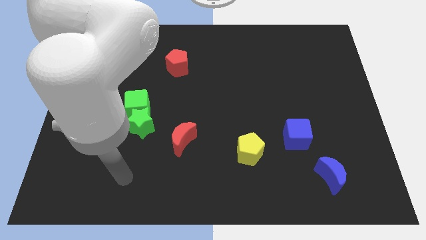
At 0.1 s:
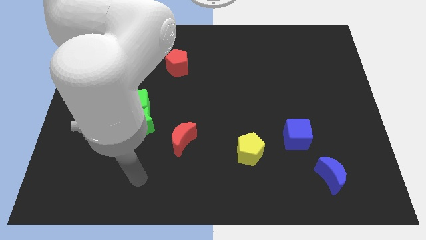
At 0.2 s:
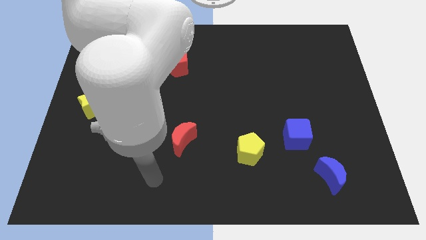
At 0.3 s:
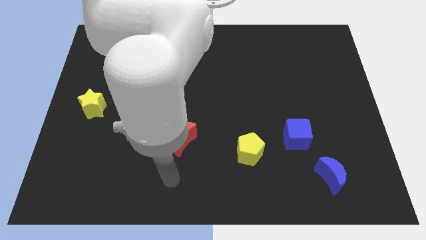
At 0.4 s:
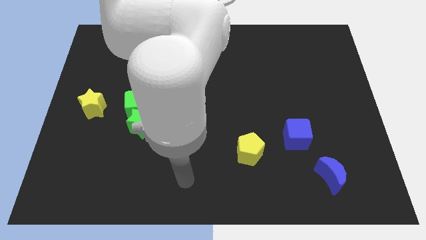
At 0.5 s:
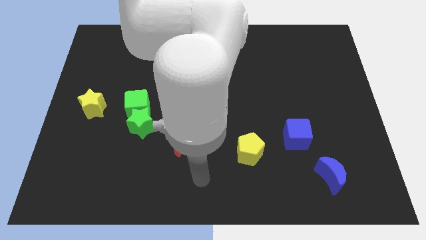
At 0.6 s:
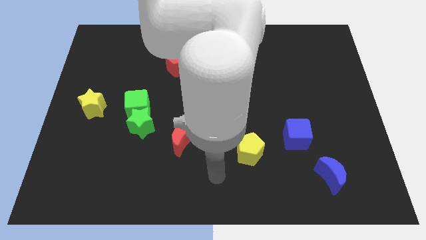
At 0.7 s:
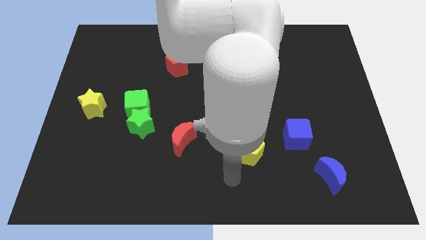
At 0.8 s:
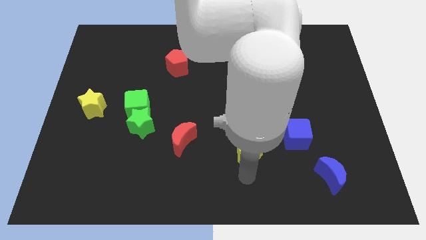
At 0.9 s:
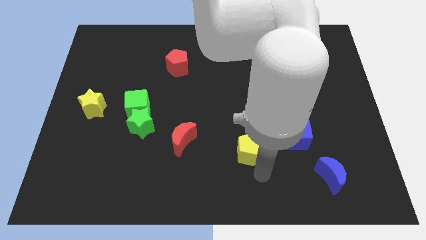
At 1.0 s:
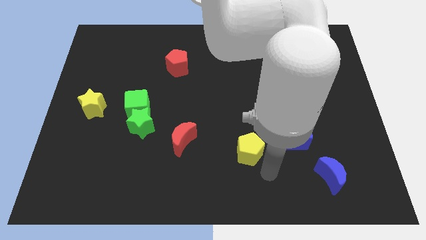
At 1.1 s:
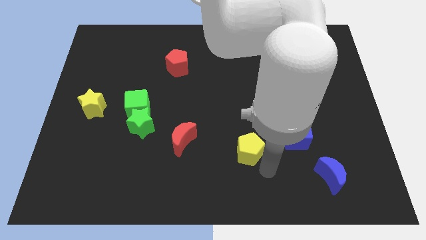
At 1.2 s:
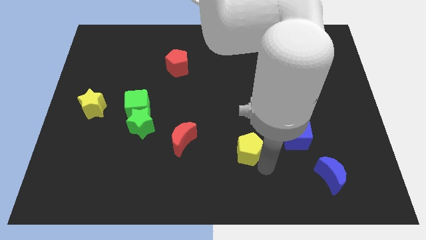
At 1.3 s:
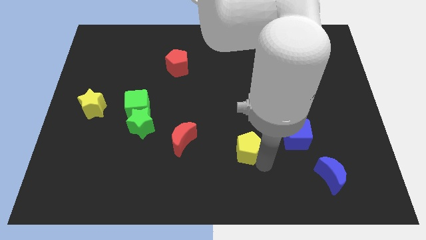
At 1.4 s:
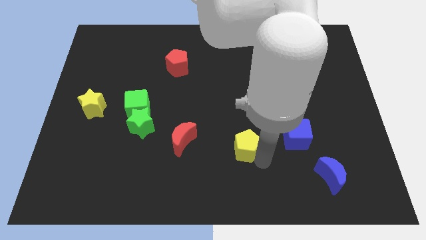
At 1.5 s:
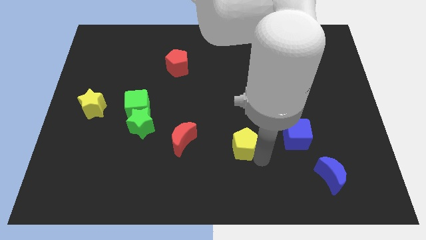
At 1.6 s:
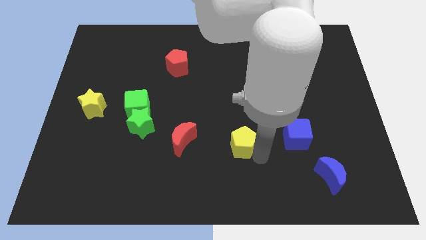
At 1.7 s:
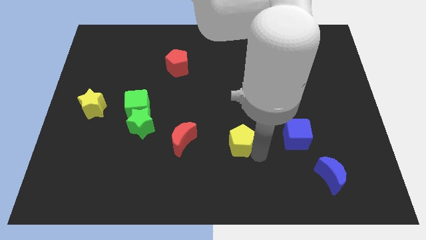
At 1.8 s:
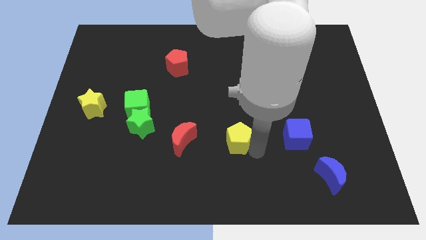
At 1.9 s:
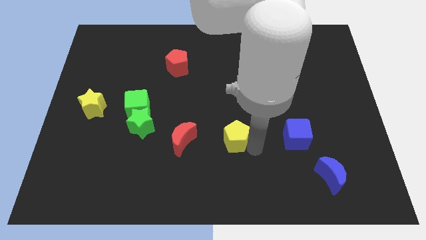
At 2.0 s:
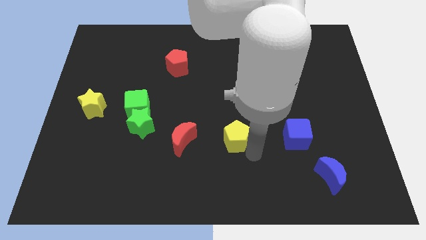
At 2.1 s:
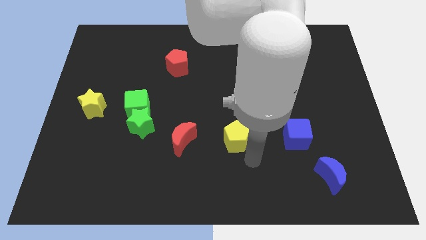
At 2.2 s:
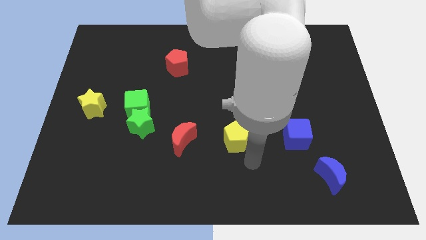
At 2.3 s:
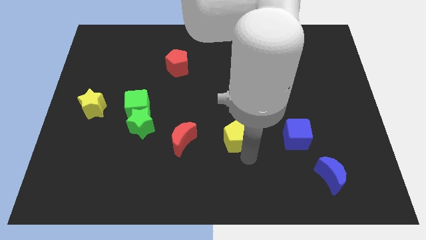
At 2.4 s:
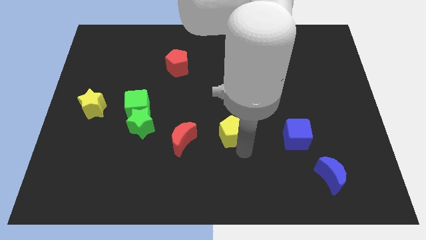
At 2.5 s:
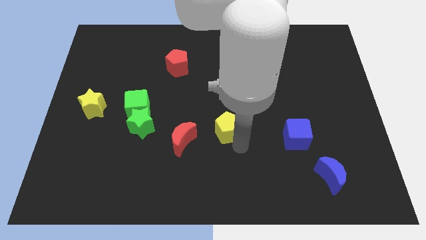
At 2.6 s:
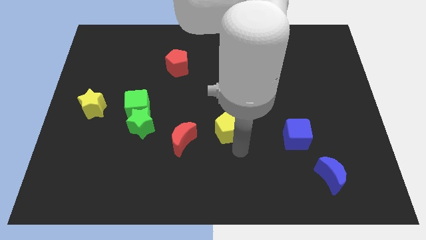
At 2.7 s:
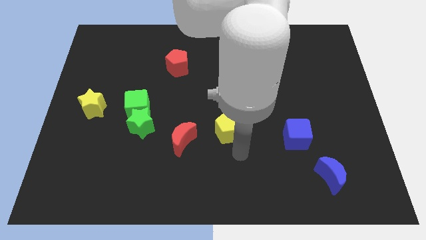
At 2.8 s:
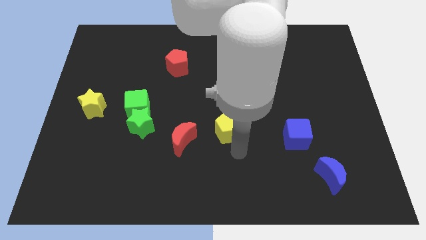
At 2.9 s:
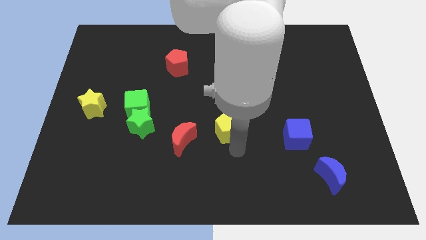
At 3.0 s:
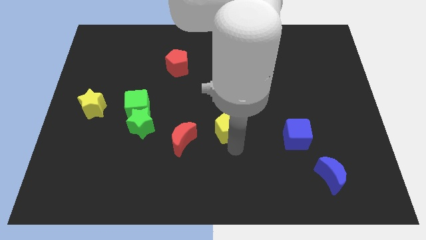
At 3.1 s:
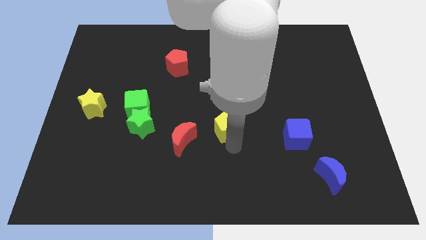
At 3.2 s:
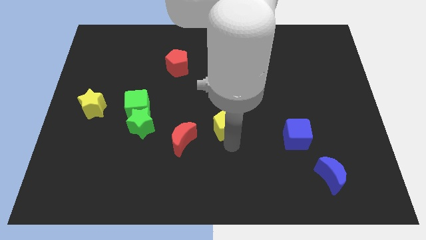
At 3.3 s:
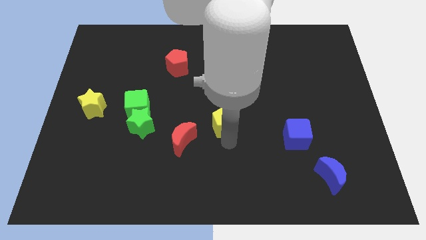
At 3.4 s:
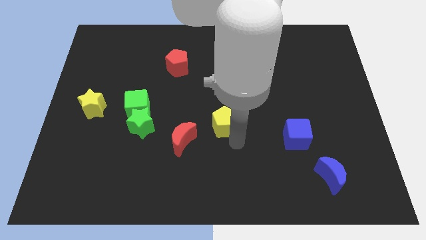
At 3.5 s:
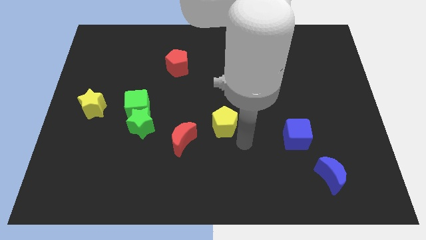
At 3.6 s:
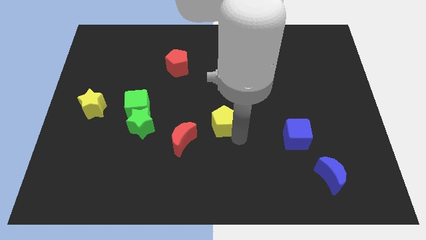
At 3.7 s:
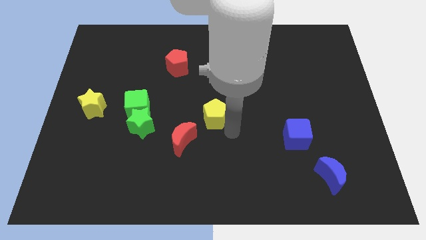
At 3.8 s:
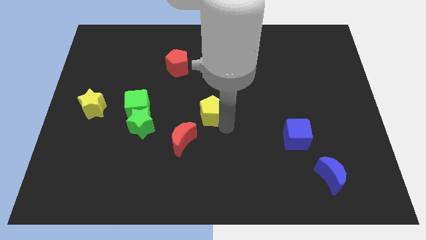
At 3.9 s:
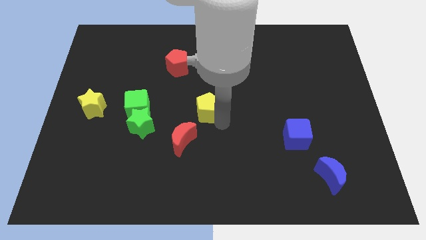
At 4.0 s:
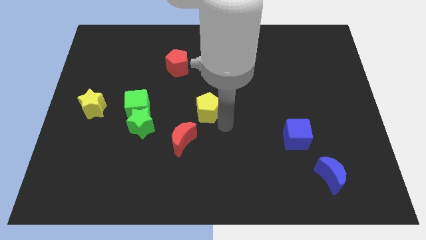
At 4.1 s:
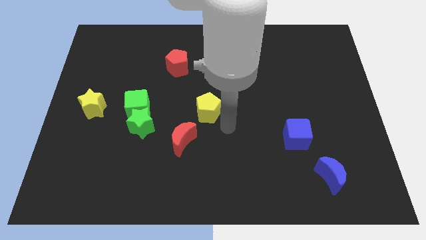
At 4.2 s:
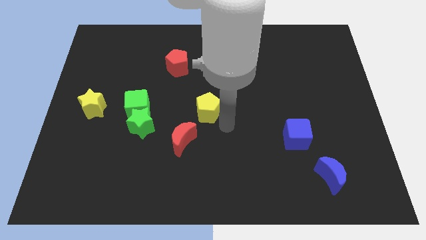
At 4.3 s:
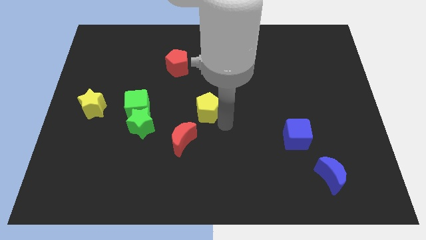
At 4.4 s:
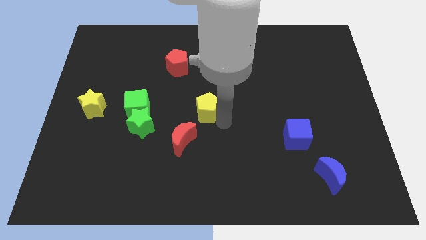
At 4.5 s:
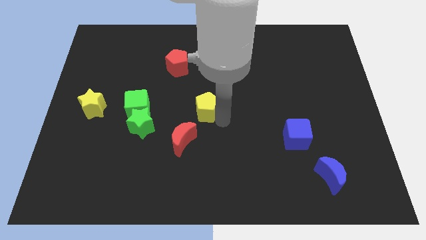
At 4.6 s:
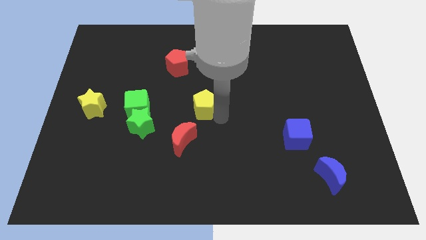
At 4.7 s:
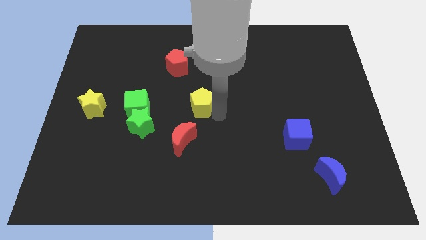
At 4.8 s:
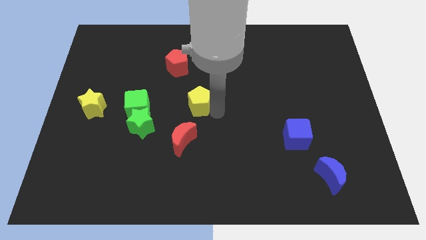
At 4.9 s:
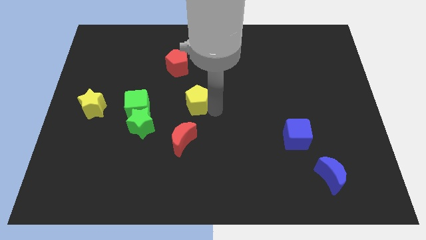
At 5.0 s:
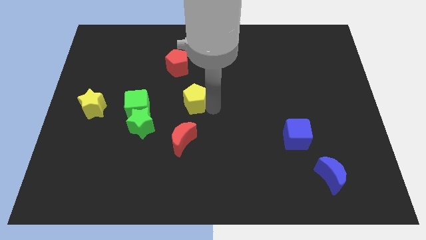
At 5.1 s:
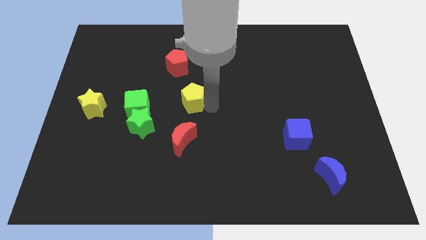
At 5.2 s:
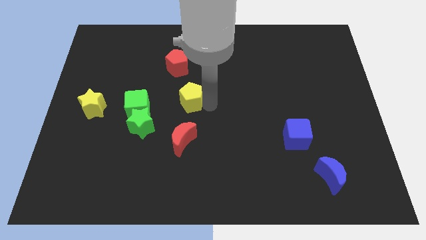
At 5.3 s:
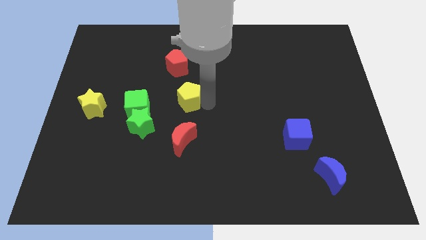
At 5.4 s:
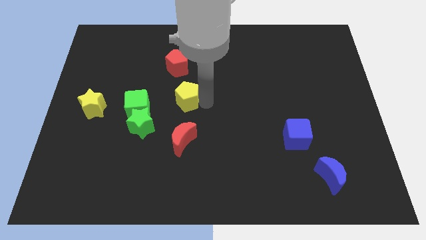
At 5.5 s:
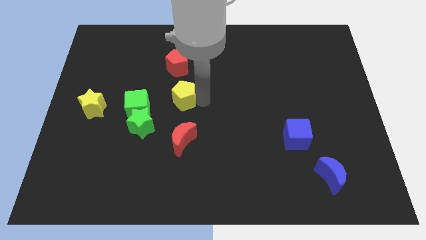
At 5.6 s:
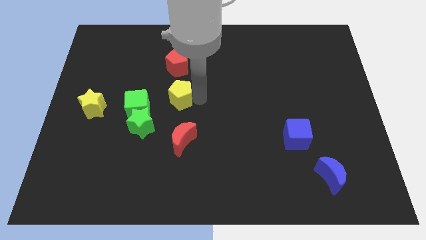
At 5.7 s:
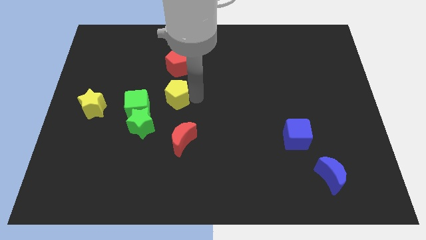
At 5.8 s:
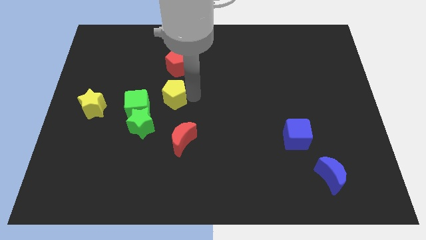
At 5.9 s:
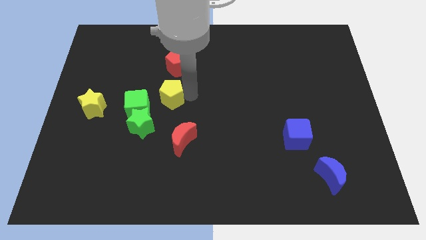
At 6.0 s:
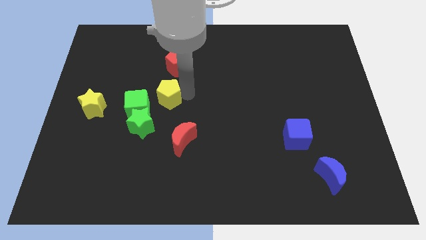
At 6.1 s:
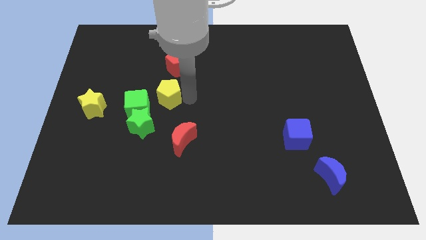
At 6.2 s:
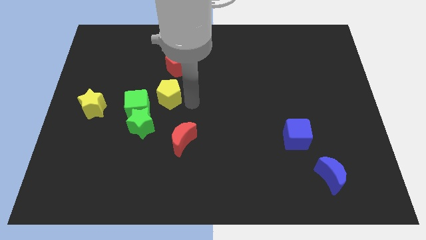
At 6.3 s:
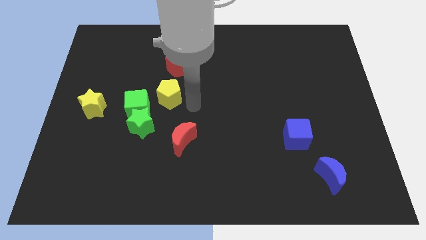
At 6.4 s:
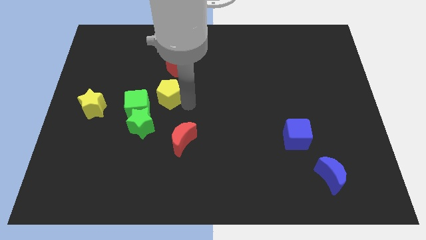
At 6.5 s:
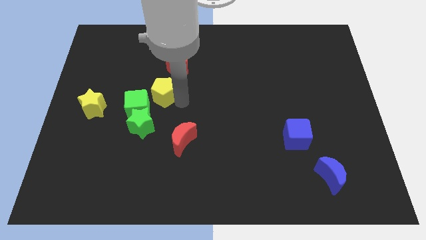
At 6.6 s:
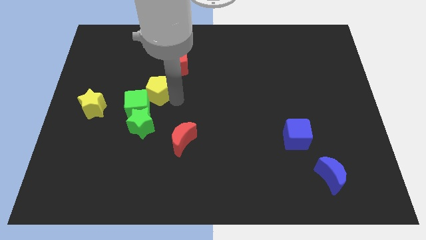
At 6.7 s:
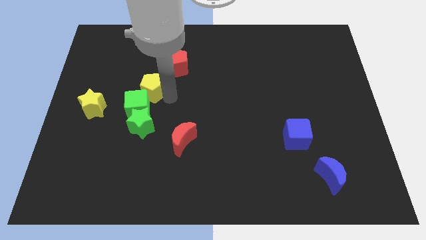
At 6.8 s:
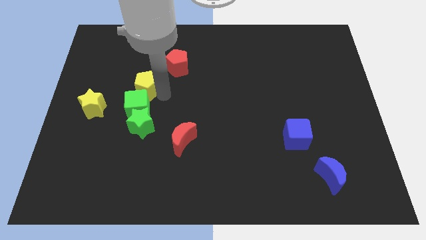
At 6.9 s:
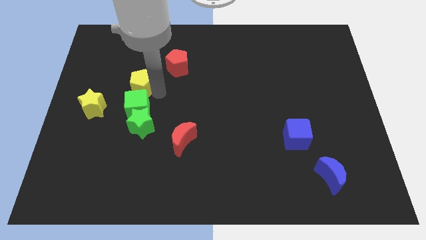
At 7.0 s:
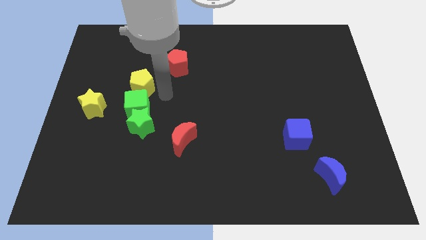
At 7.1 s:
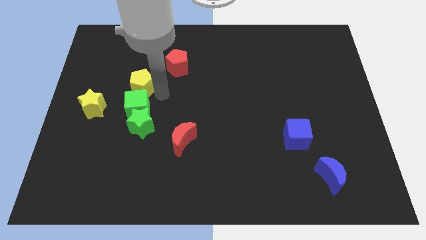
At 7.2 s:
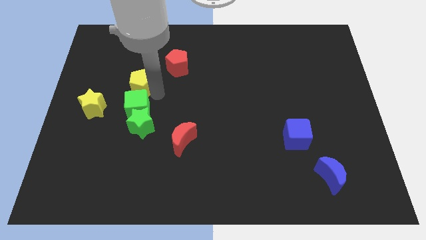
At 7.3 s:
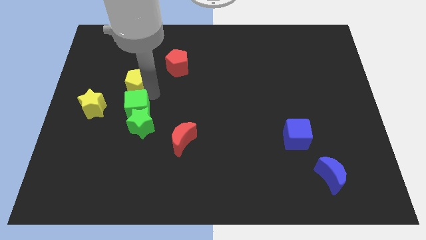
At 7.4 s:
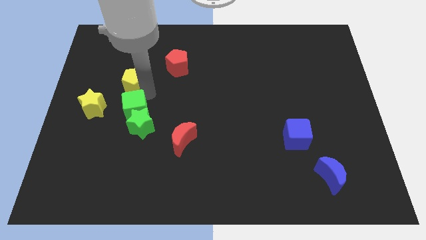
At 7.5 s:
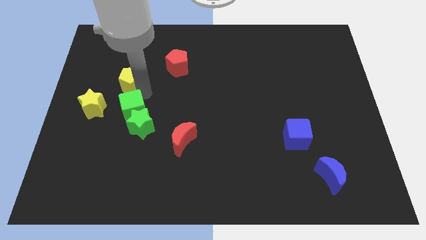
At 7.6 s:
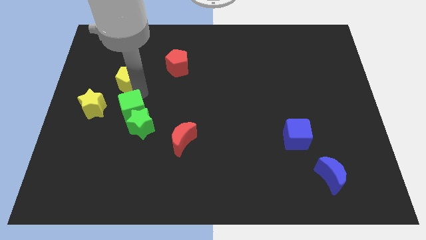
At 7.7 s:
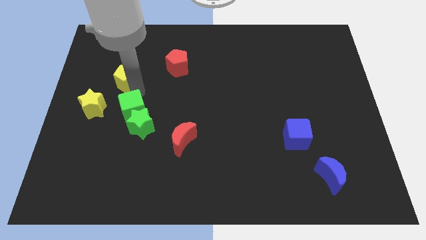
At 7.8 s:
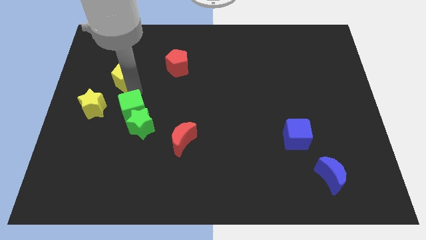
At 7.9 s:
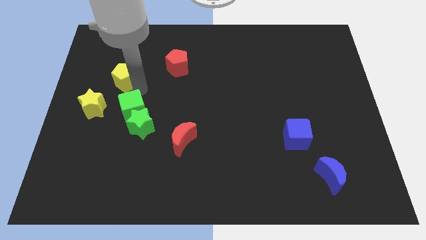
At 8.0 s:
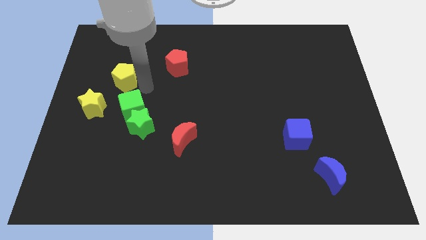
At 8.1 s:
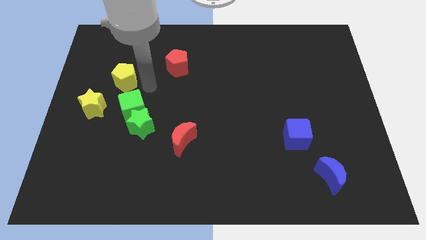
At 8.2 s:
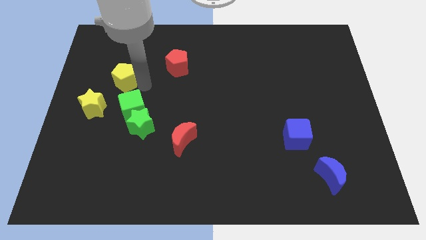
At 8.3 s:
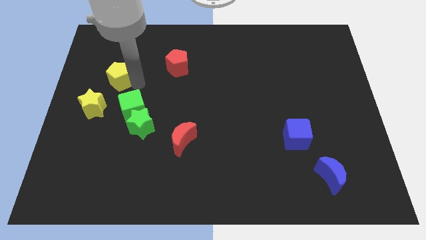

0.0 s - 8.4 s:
push the yellow pentagon above the yellow star
